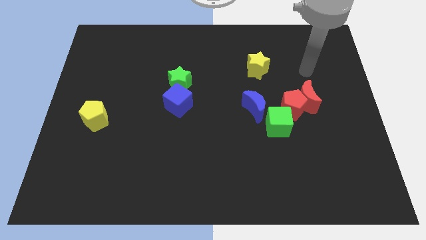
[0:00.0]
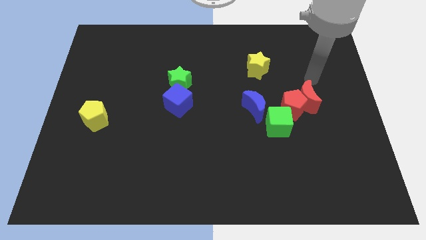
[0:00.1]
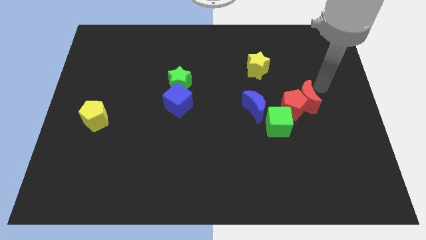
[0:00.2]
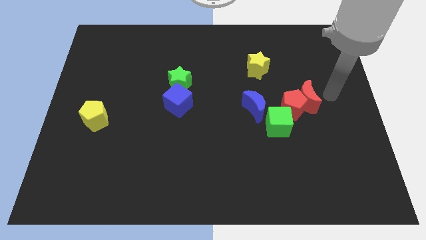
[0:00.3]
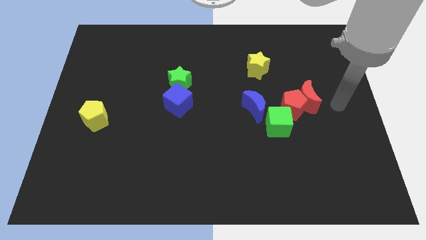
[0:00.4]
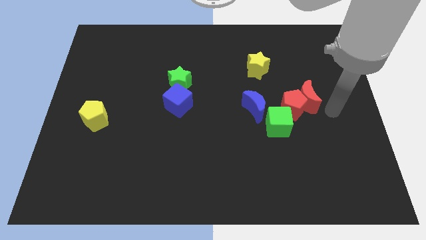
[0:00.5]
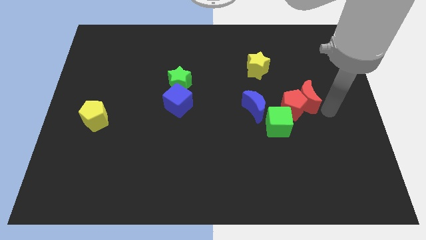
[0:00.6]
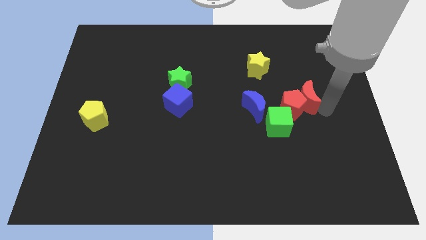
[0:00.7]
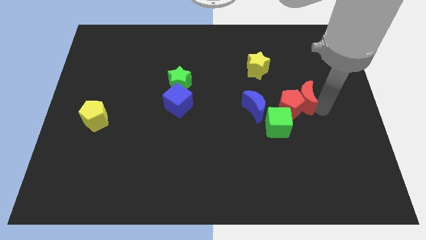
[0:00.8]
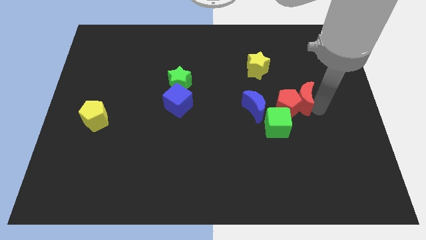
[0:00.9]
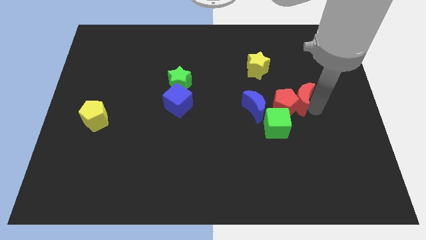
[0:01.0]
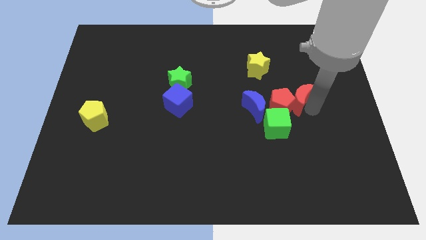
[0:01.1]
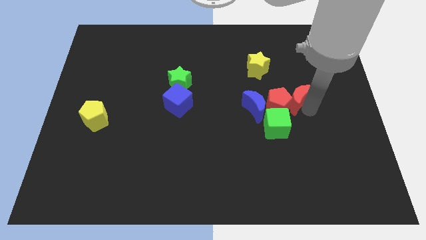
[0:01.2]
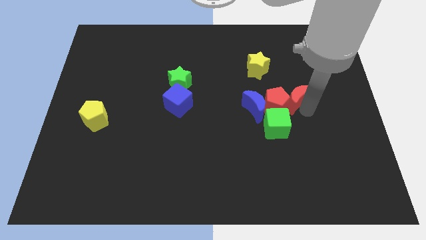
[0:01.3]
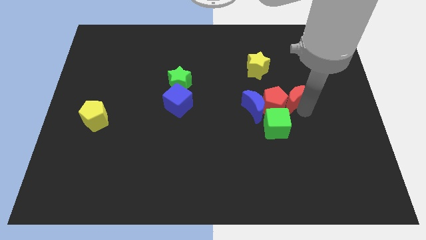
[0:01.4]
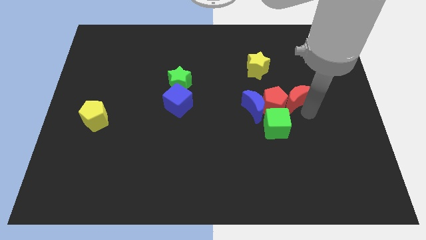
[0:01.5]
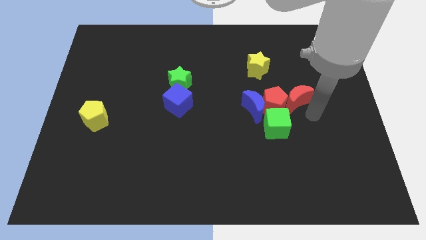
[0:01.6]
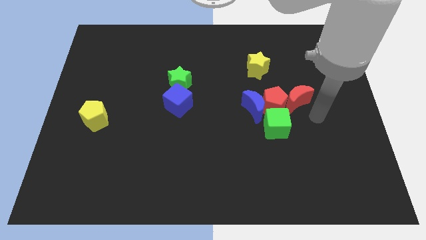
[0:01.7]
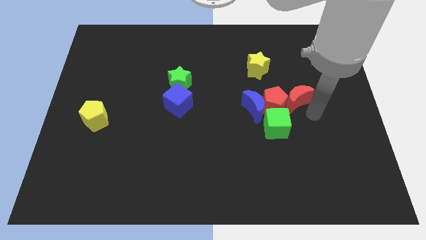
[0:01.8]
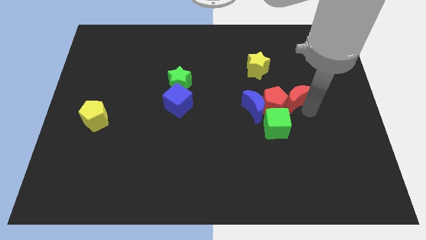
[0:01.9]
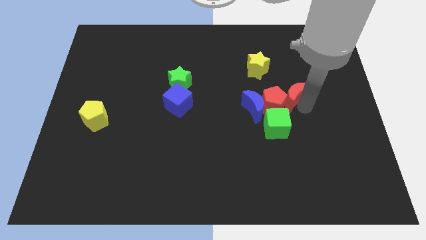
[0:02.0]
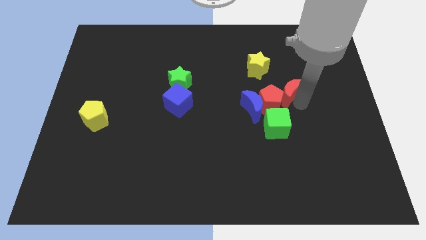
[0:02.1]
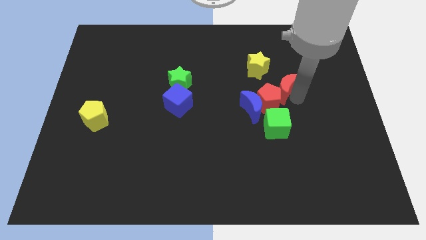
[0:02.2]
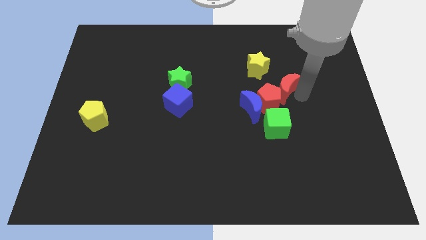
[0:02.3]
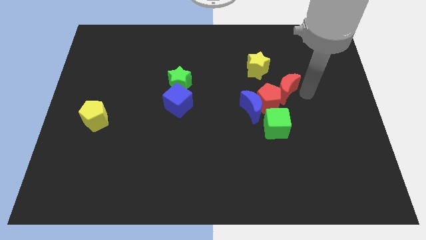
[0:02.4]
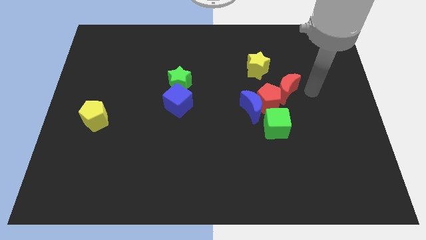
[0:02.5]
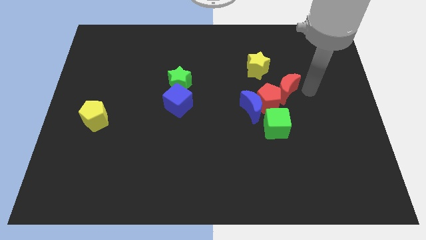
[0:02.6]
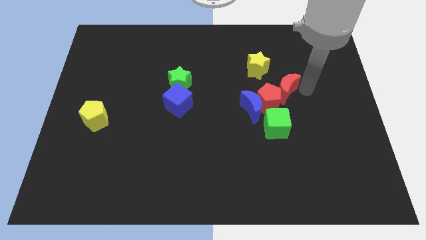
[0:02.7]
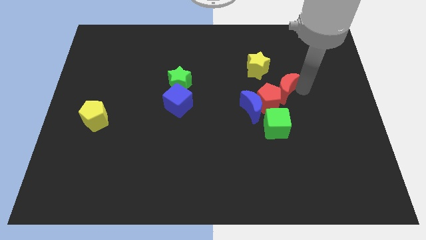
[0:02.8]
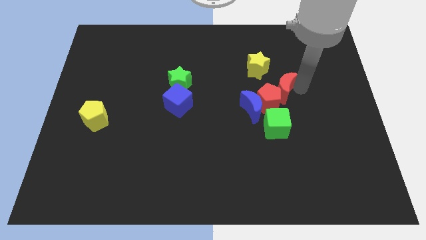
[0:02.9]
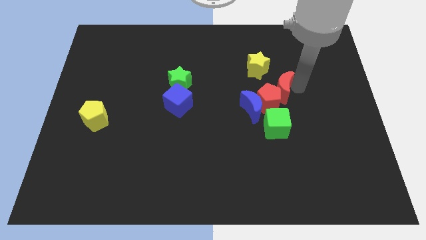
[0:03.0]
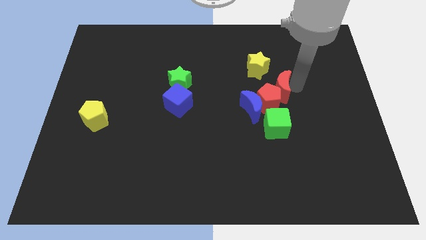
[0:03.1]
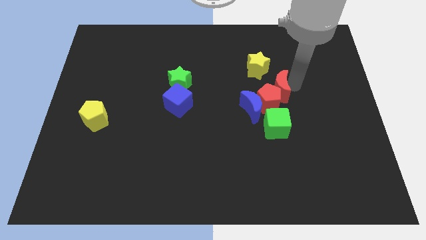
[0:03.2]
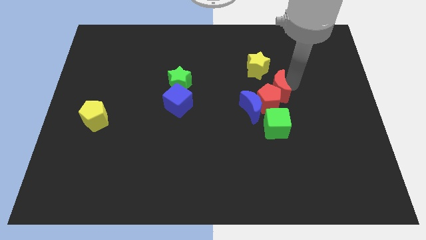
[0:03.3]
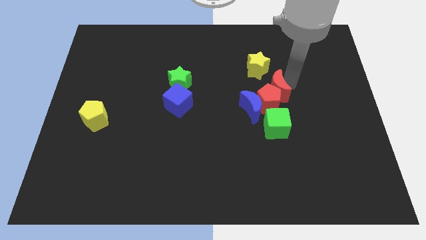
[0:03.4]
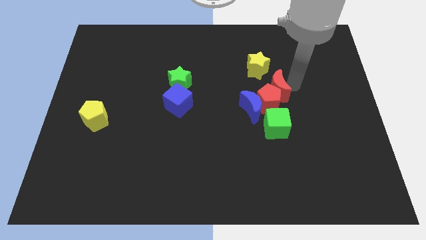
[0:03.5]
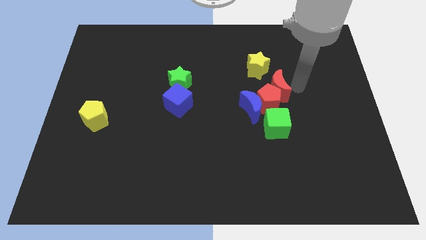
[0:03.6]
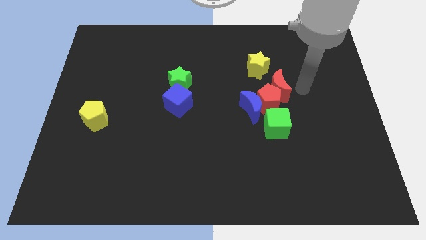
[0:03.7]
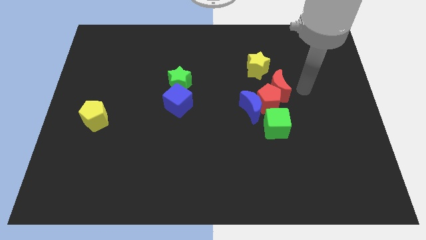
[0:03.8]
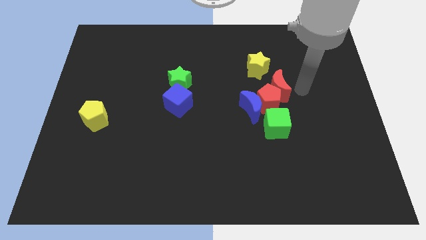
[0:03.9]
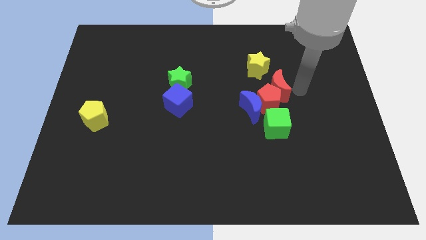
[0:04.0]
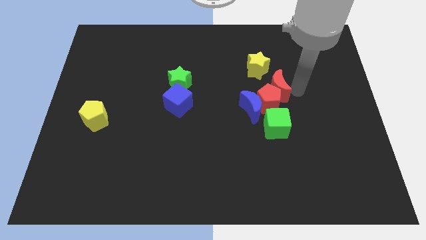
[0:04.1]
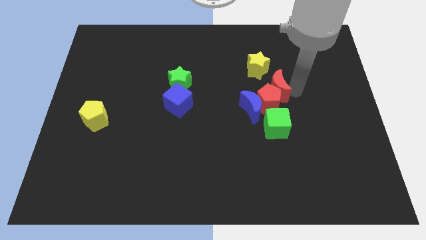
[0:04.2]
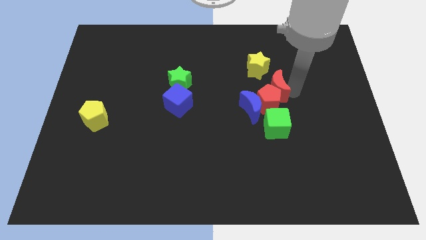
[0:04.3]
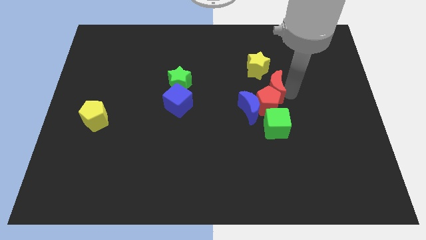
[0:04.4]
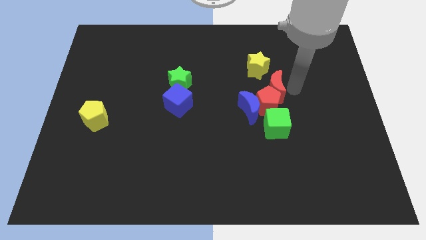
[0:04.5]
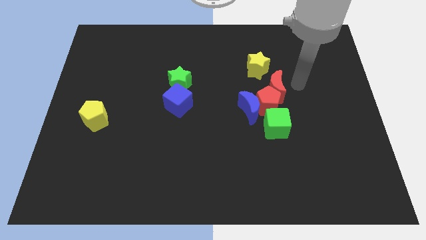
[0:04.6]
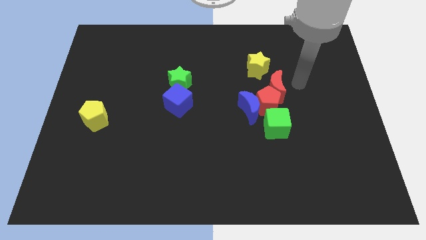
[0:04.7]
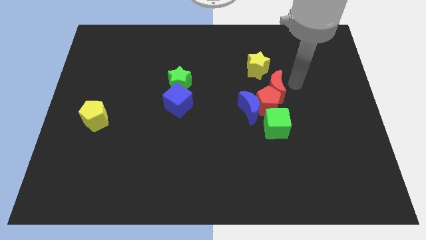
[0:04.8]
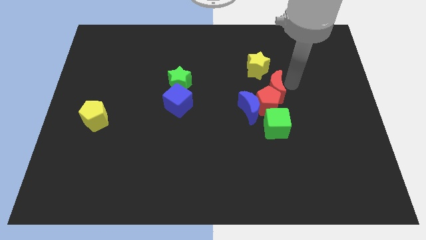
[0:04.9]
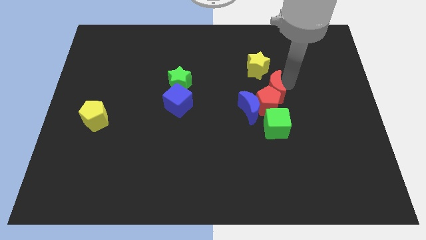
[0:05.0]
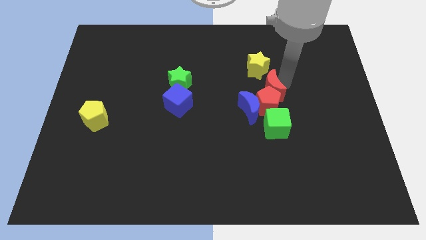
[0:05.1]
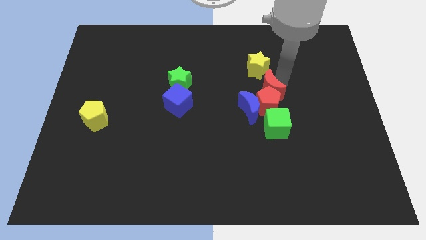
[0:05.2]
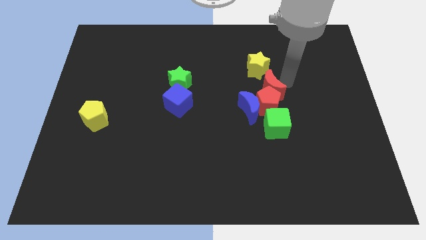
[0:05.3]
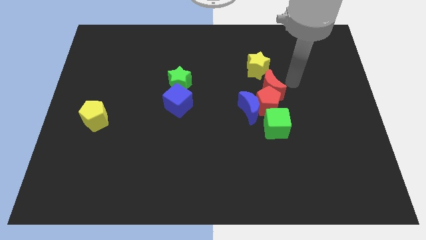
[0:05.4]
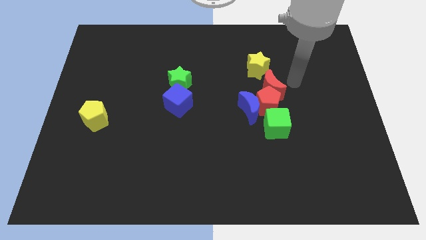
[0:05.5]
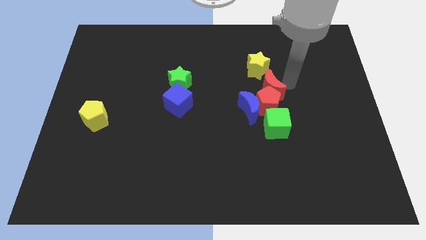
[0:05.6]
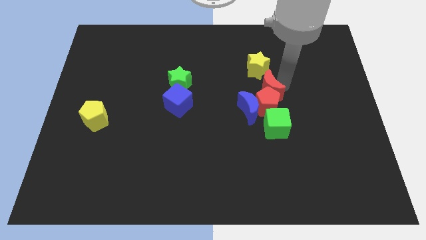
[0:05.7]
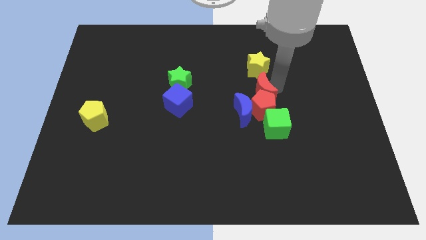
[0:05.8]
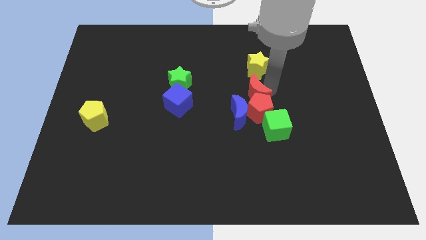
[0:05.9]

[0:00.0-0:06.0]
move the red moon to the top left side of the green cube

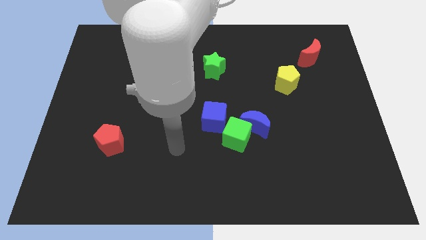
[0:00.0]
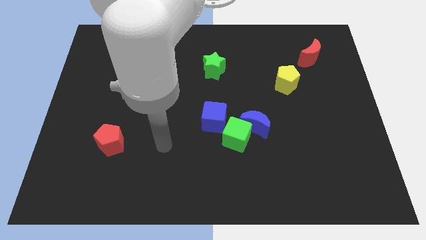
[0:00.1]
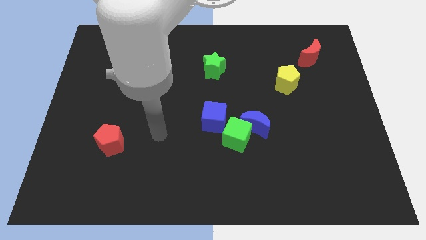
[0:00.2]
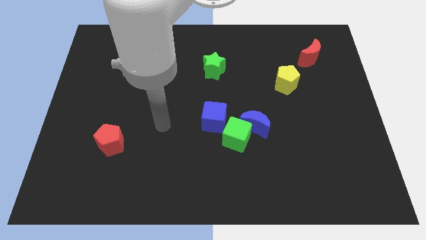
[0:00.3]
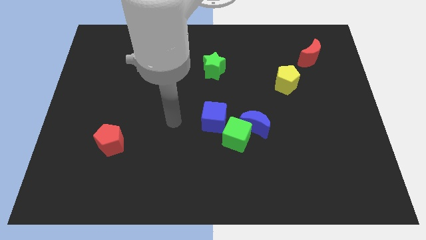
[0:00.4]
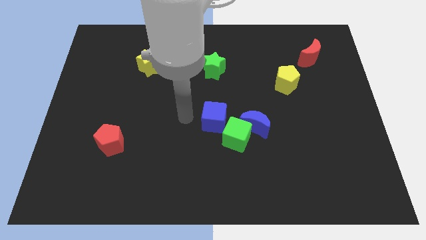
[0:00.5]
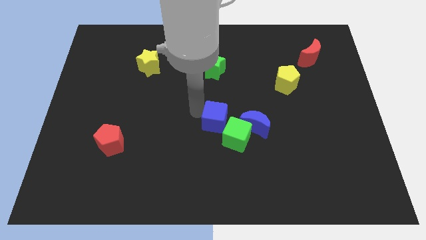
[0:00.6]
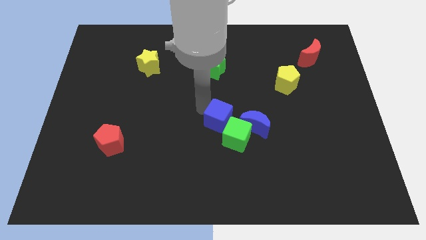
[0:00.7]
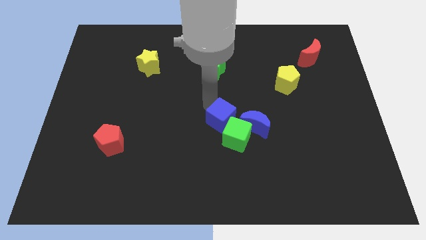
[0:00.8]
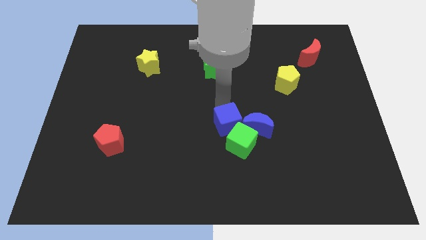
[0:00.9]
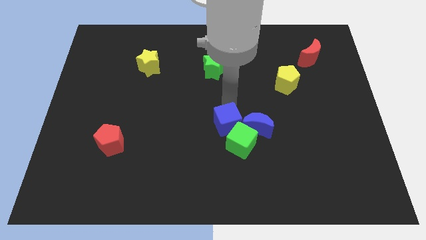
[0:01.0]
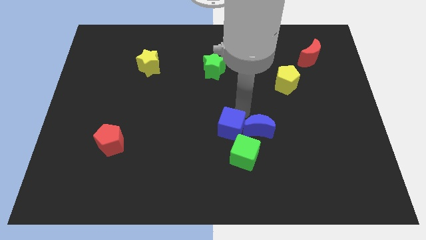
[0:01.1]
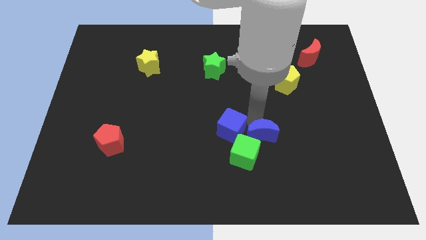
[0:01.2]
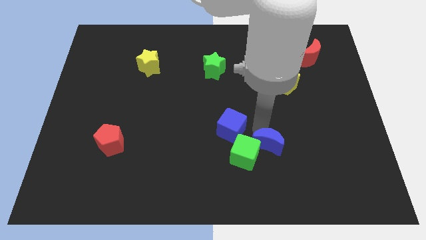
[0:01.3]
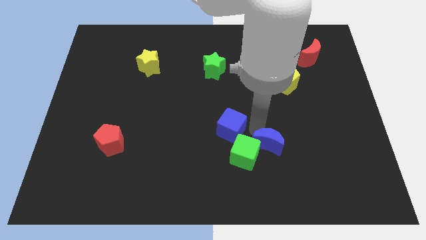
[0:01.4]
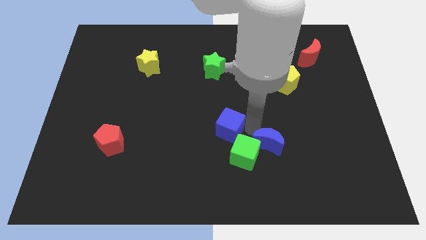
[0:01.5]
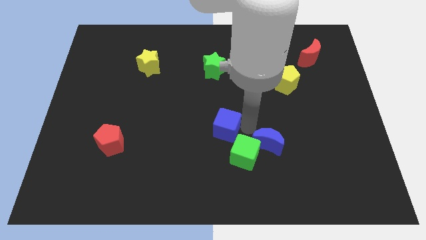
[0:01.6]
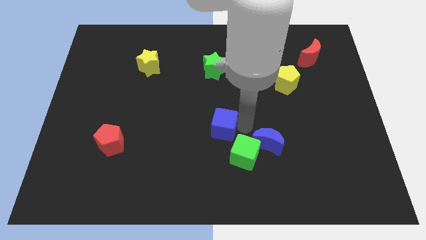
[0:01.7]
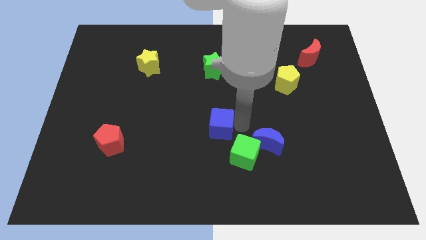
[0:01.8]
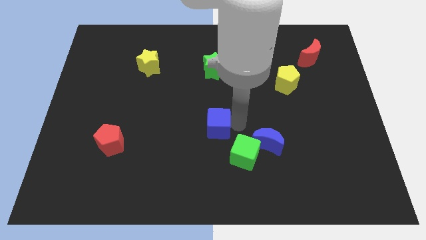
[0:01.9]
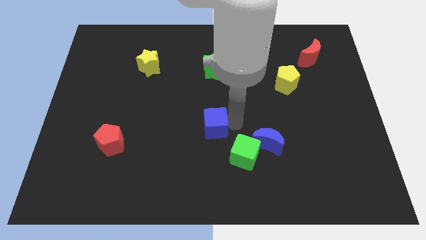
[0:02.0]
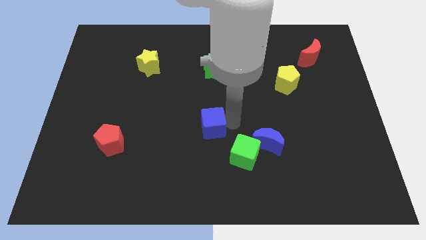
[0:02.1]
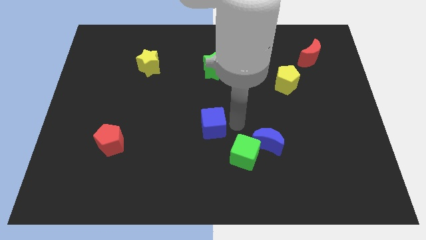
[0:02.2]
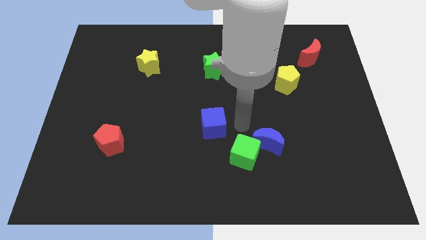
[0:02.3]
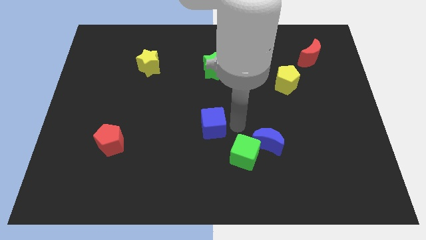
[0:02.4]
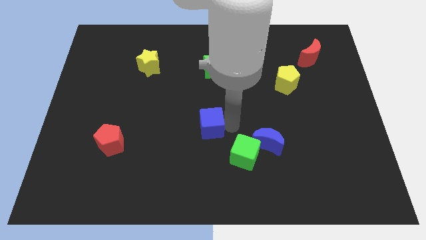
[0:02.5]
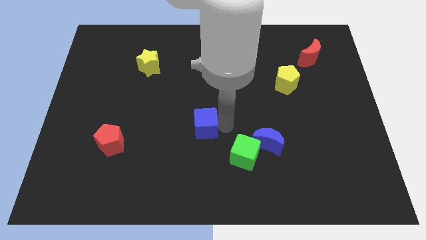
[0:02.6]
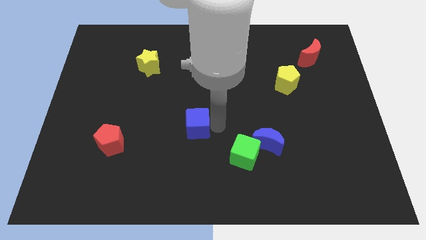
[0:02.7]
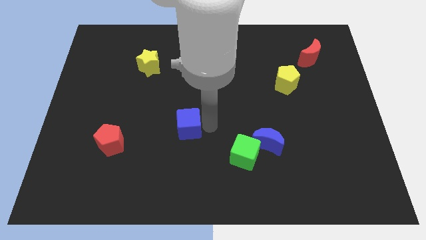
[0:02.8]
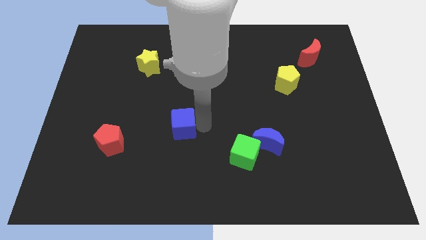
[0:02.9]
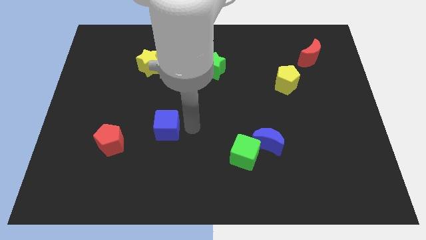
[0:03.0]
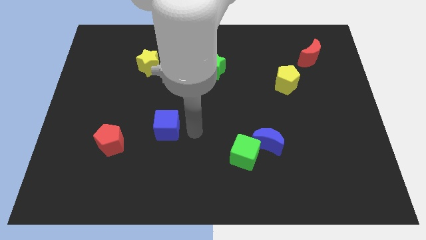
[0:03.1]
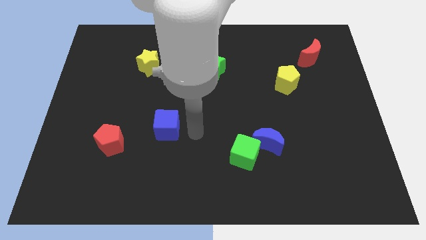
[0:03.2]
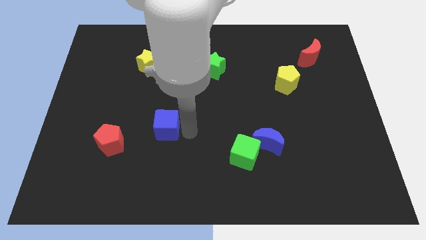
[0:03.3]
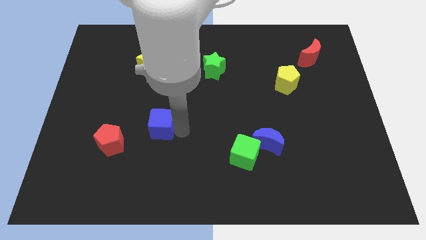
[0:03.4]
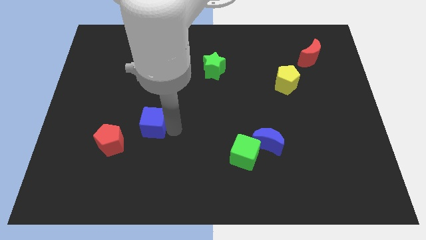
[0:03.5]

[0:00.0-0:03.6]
move the blue cube to the top right side of the red pentagon
